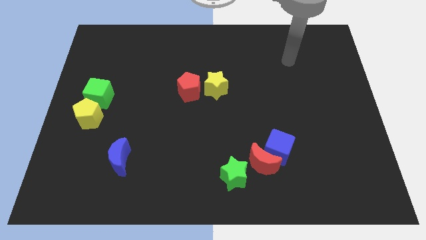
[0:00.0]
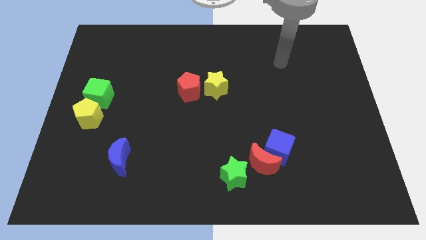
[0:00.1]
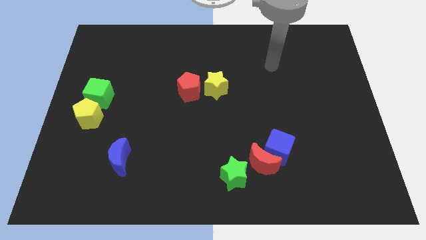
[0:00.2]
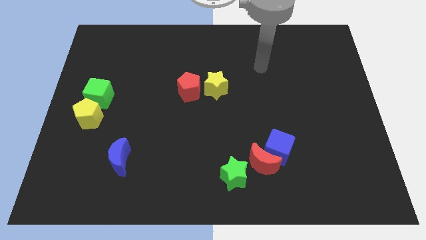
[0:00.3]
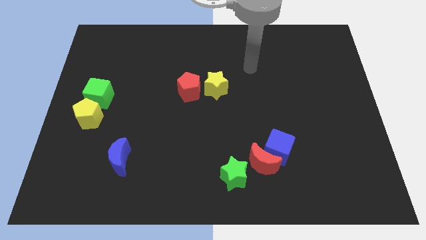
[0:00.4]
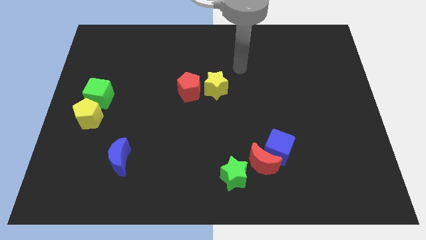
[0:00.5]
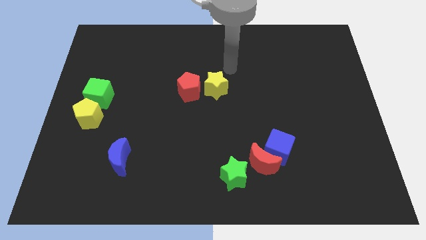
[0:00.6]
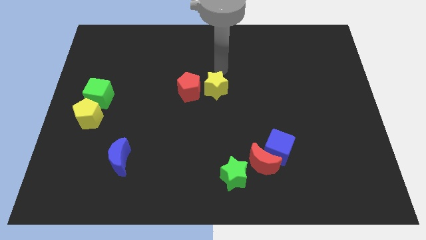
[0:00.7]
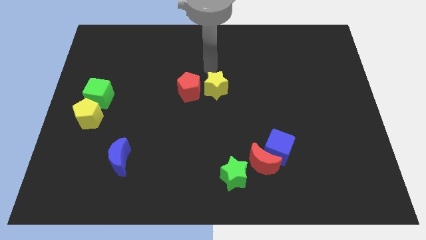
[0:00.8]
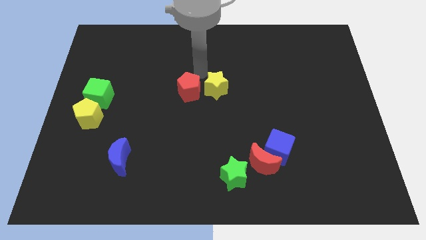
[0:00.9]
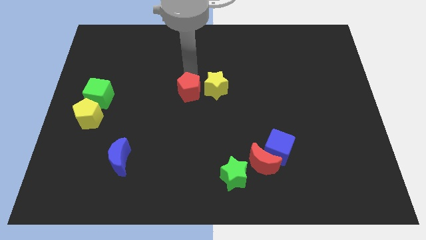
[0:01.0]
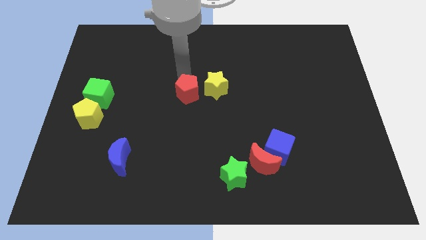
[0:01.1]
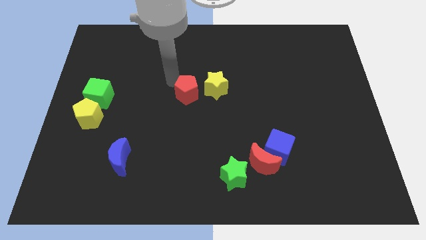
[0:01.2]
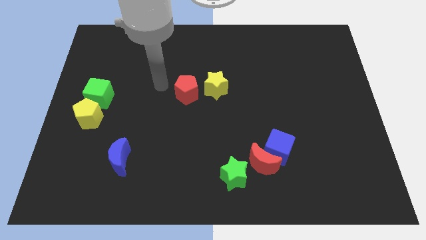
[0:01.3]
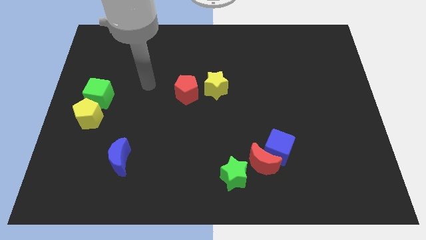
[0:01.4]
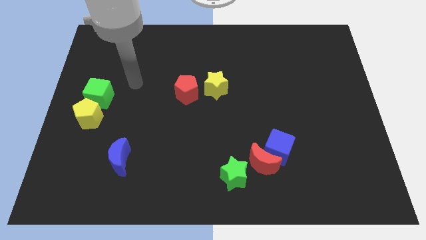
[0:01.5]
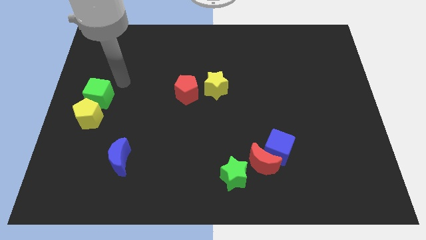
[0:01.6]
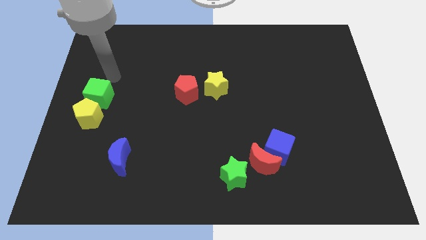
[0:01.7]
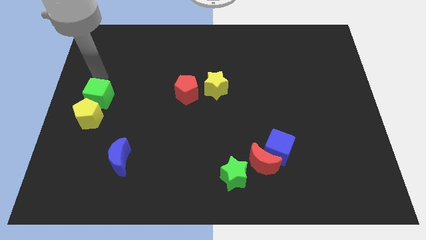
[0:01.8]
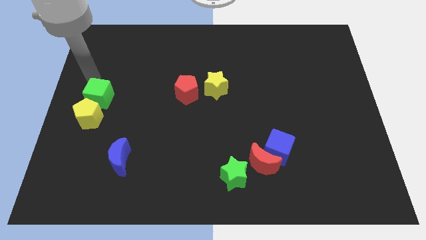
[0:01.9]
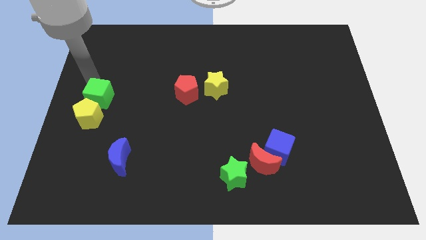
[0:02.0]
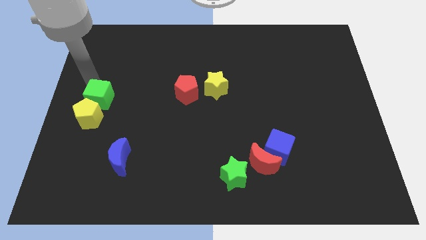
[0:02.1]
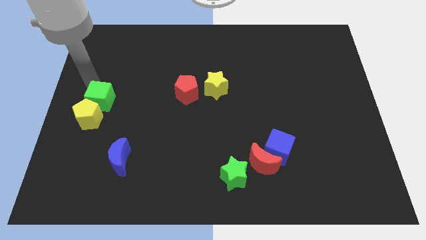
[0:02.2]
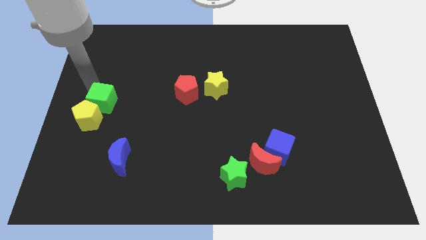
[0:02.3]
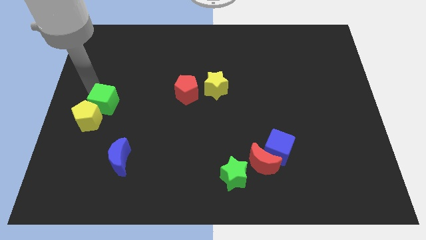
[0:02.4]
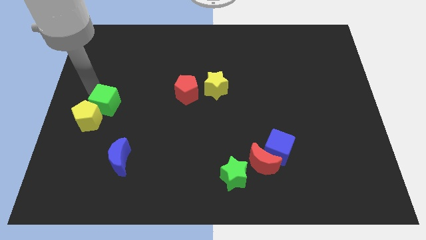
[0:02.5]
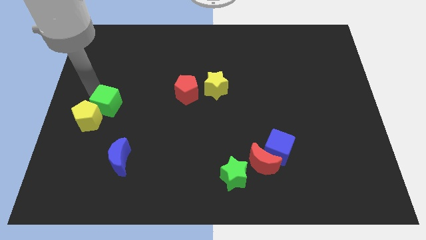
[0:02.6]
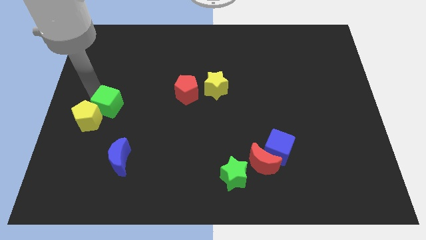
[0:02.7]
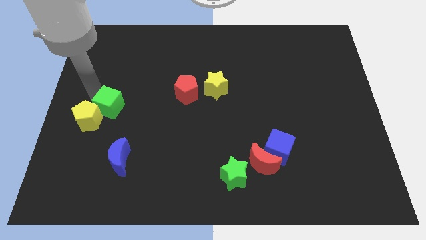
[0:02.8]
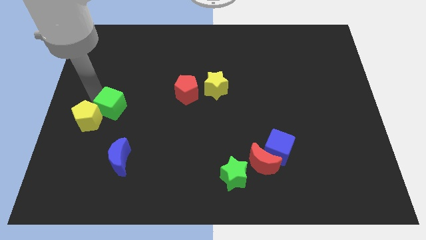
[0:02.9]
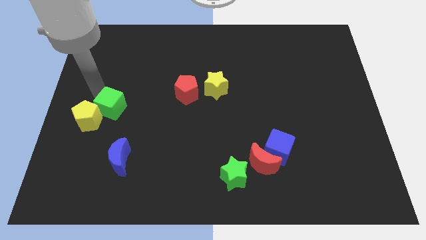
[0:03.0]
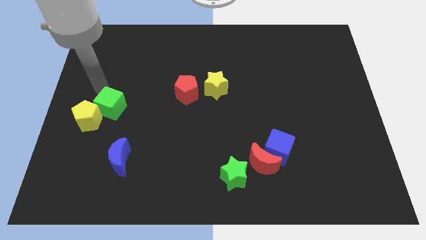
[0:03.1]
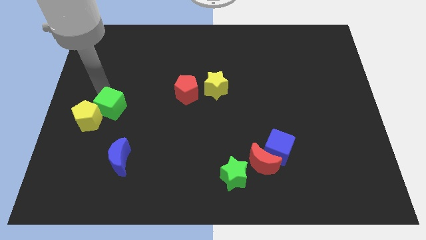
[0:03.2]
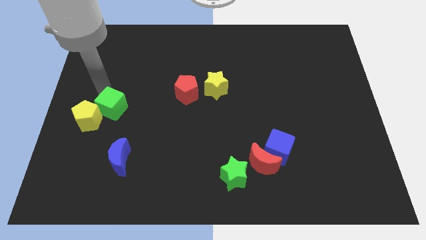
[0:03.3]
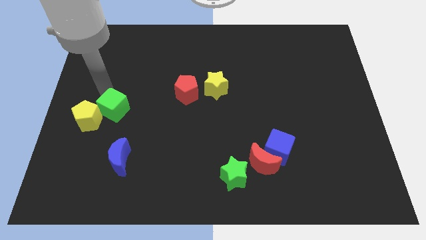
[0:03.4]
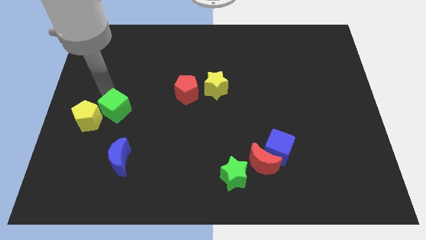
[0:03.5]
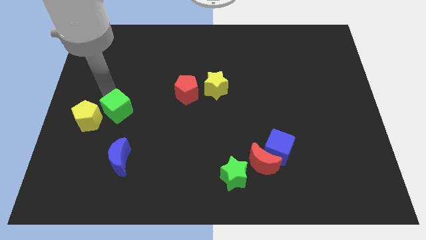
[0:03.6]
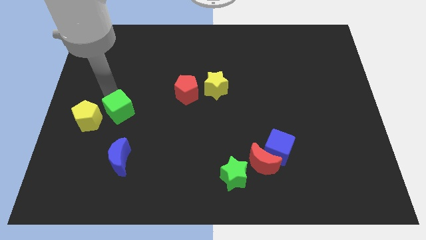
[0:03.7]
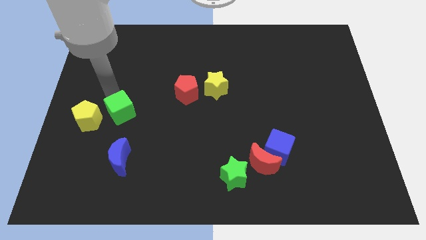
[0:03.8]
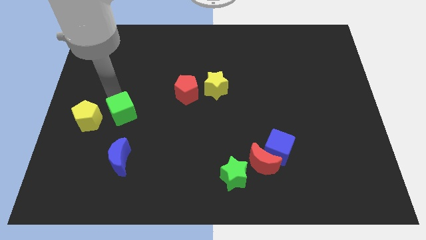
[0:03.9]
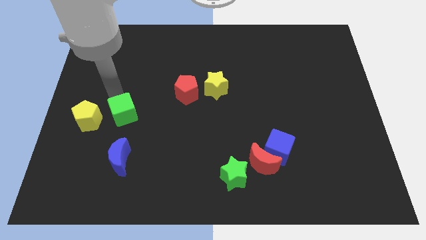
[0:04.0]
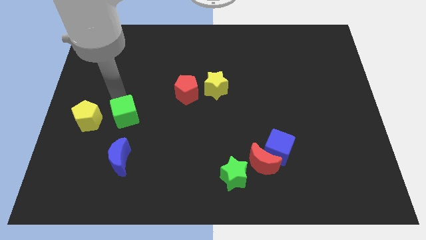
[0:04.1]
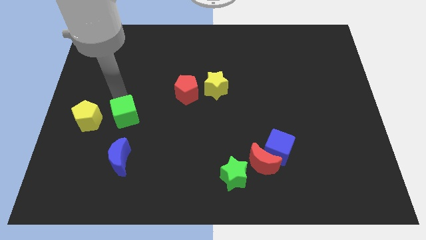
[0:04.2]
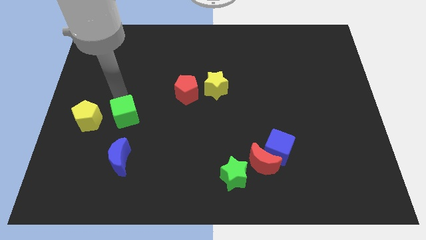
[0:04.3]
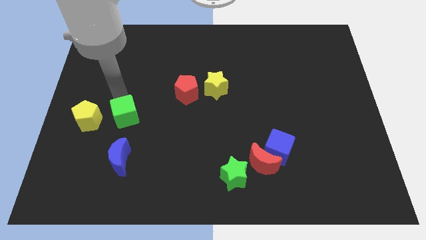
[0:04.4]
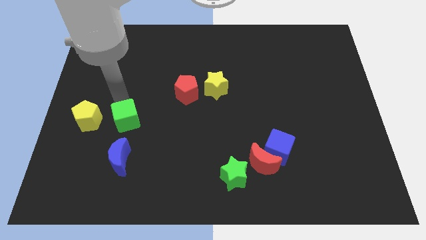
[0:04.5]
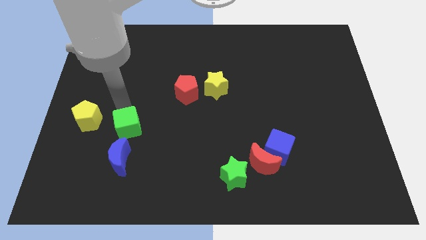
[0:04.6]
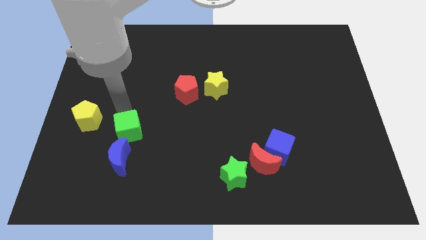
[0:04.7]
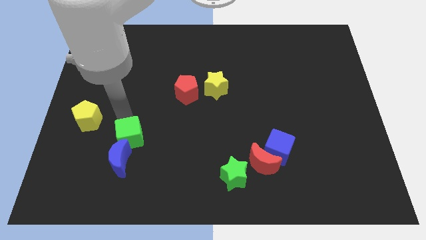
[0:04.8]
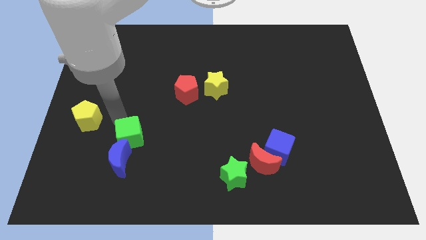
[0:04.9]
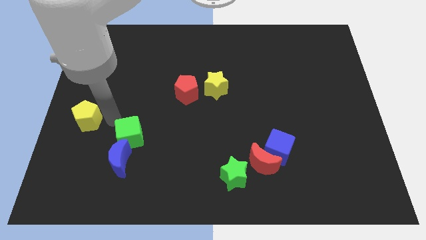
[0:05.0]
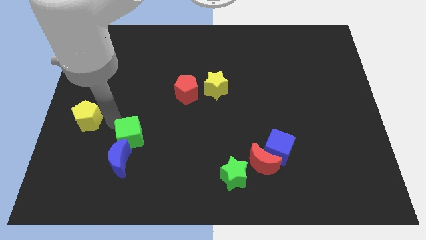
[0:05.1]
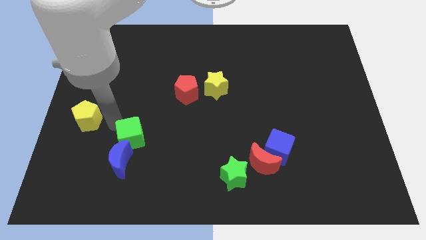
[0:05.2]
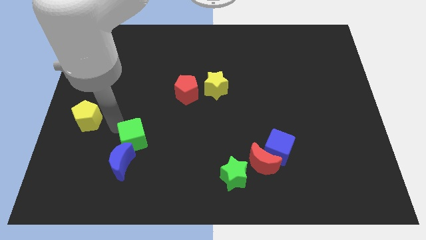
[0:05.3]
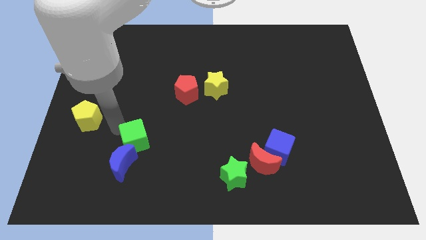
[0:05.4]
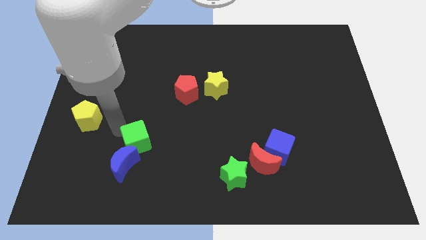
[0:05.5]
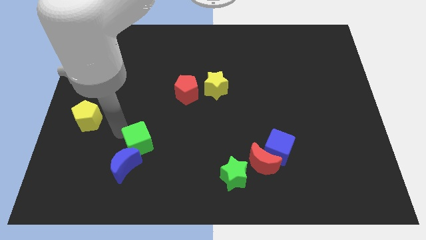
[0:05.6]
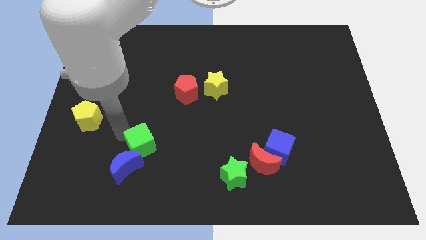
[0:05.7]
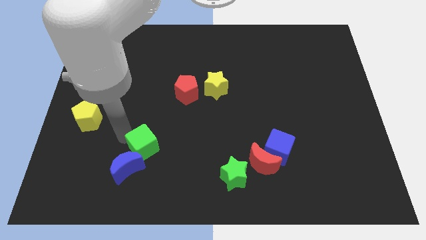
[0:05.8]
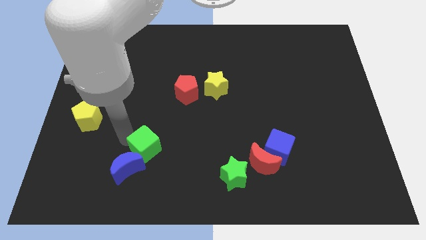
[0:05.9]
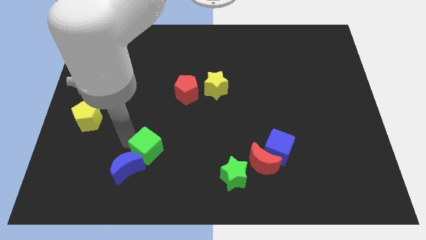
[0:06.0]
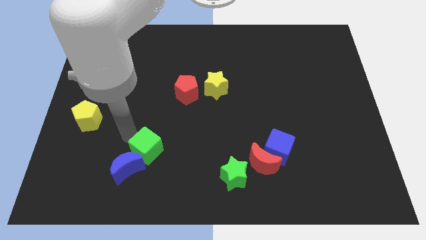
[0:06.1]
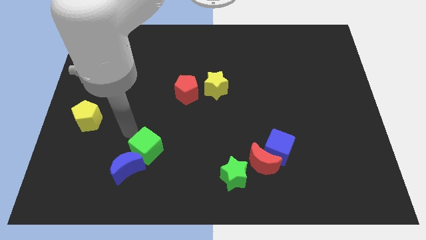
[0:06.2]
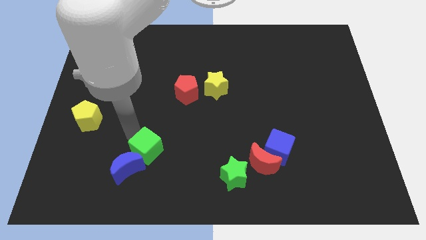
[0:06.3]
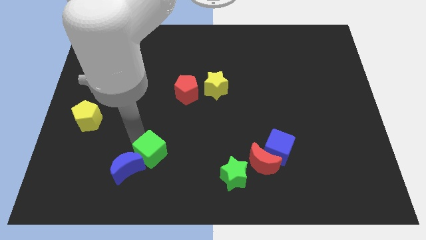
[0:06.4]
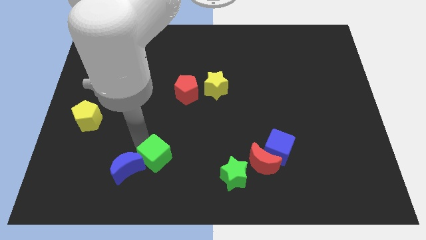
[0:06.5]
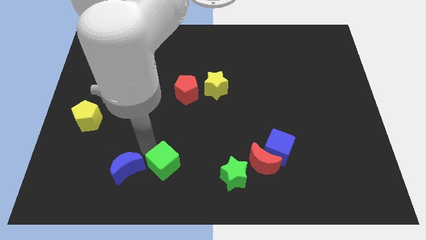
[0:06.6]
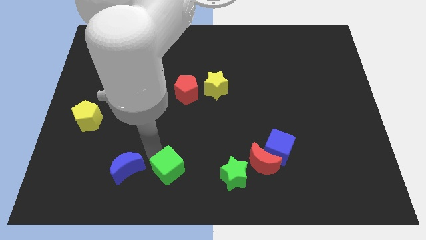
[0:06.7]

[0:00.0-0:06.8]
slide the green cube to the bottom

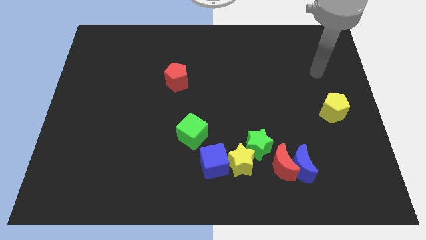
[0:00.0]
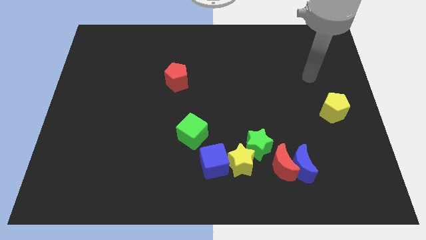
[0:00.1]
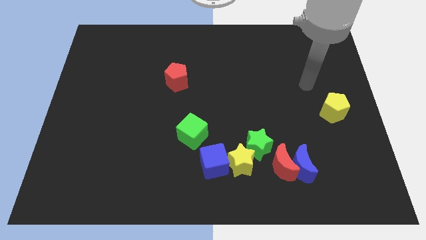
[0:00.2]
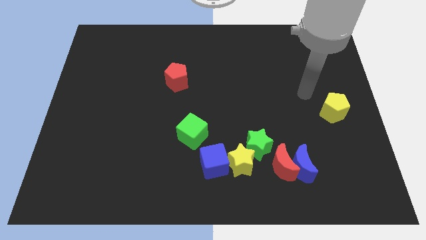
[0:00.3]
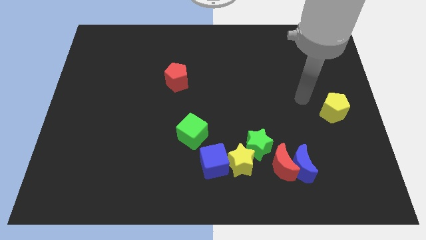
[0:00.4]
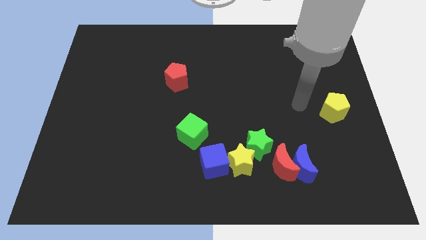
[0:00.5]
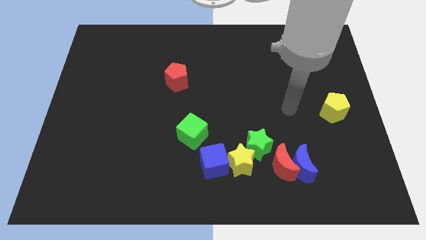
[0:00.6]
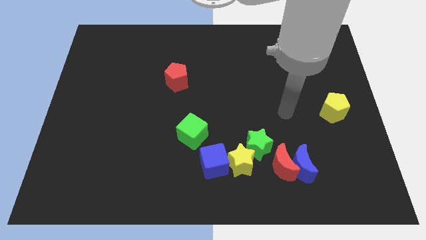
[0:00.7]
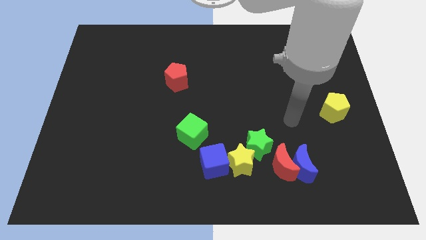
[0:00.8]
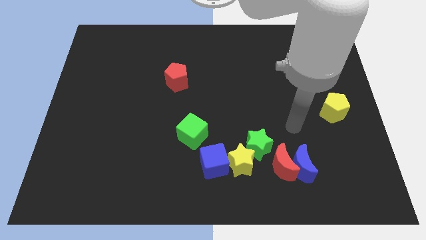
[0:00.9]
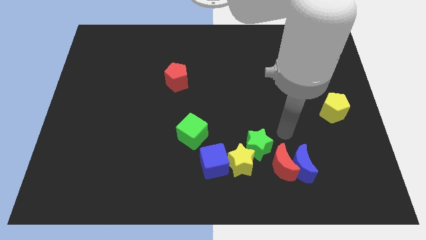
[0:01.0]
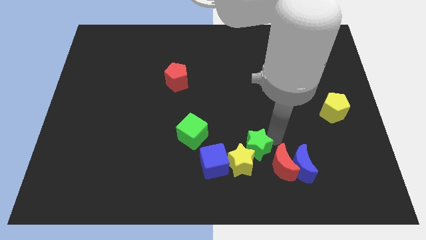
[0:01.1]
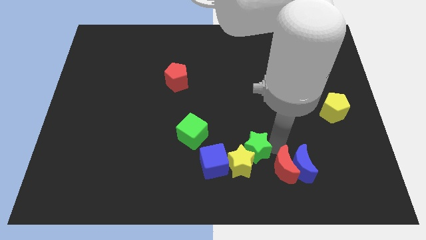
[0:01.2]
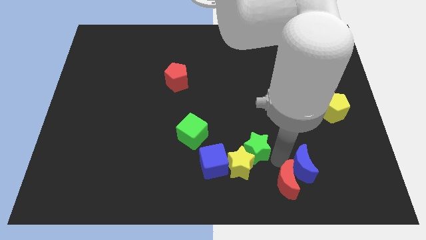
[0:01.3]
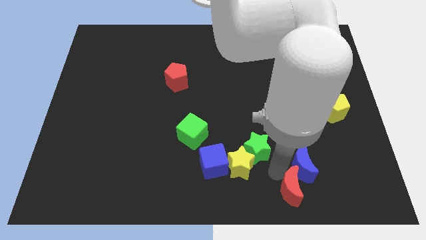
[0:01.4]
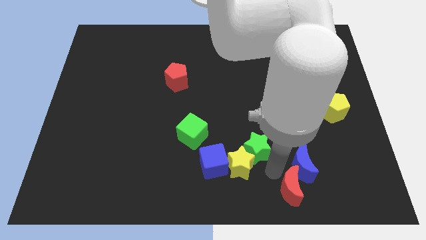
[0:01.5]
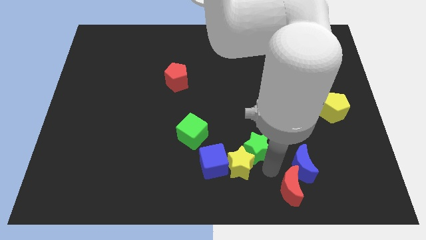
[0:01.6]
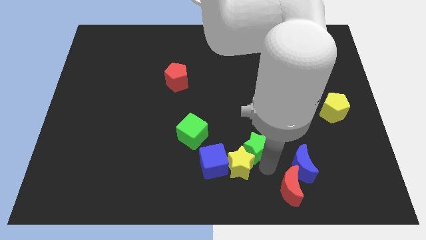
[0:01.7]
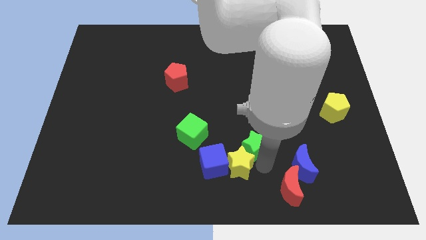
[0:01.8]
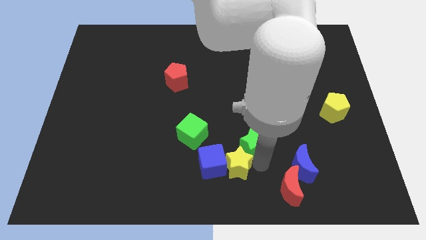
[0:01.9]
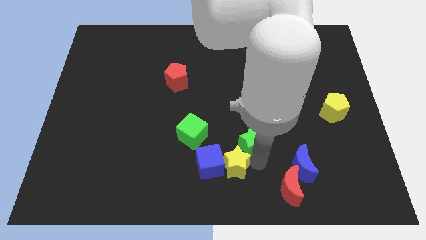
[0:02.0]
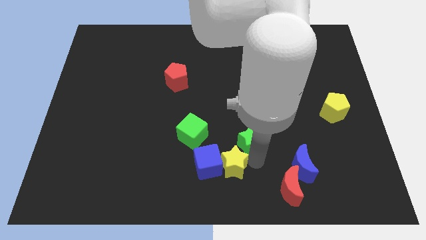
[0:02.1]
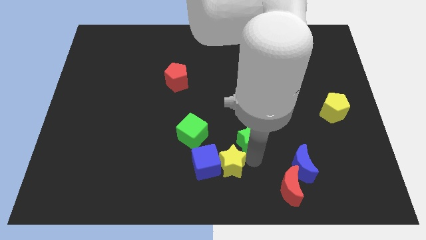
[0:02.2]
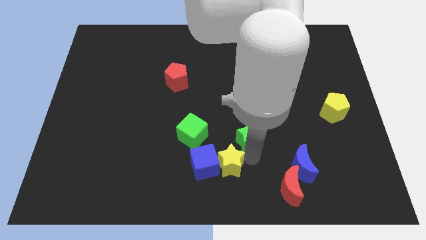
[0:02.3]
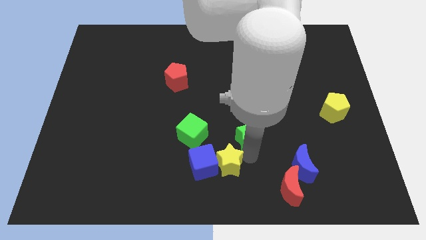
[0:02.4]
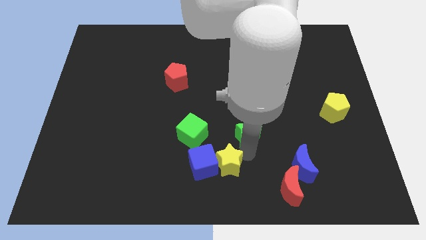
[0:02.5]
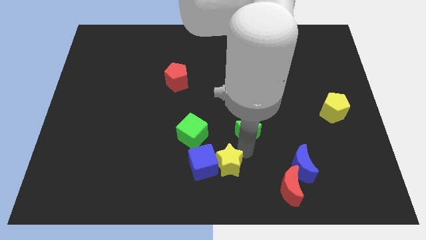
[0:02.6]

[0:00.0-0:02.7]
push the green star to the center
